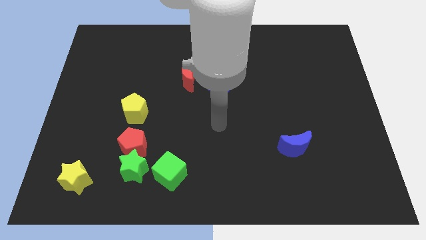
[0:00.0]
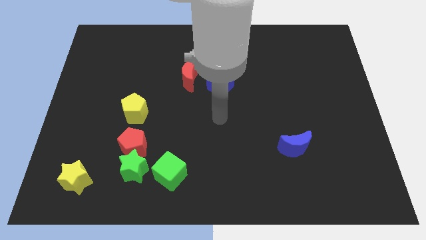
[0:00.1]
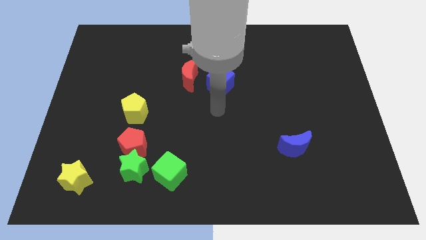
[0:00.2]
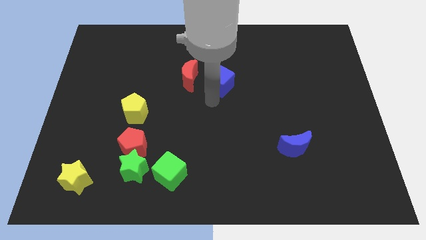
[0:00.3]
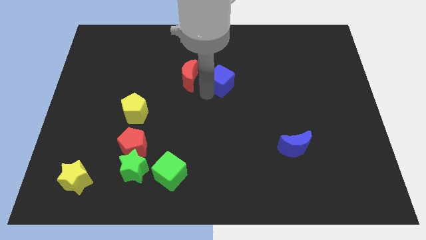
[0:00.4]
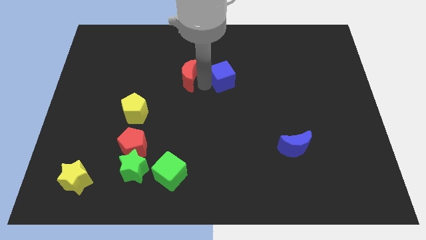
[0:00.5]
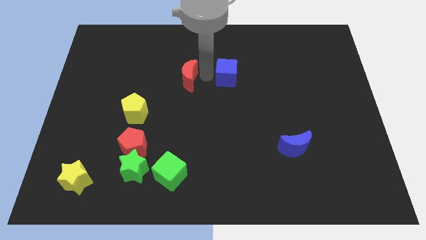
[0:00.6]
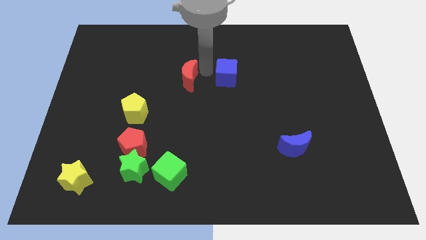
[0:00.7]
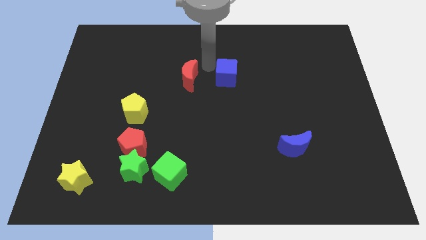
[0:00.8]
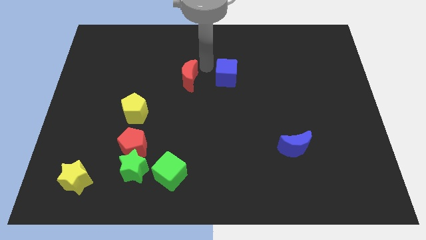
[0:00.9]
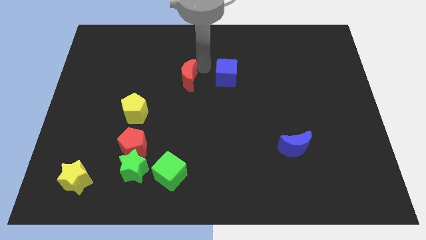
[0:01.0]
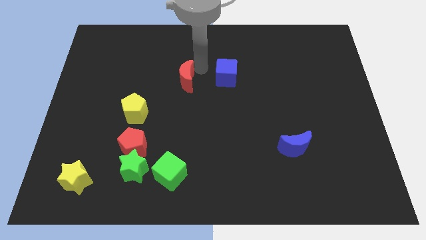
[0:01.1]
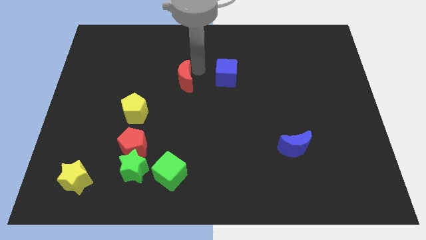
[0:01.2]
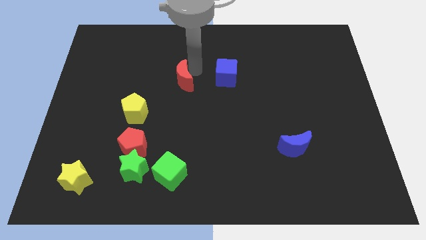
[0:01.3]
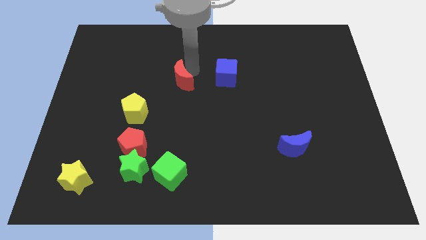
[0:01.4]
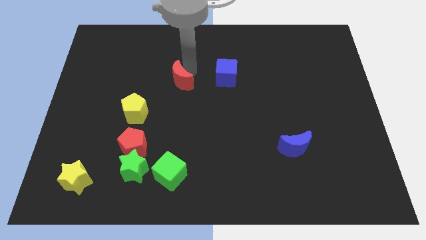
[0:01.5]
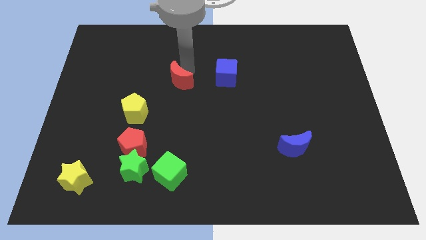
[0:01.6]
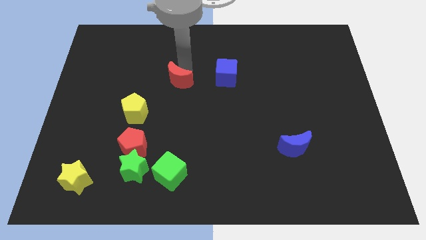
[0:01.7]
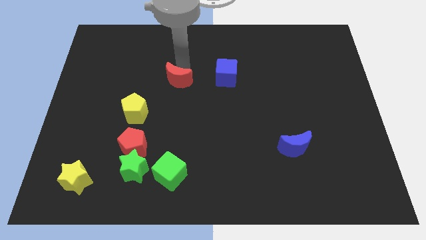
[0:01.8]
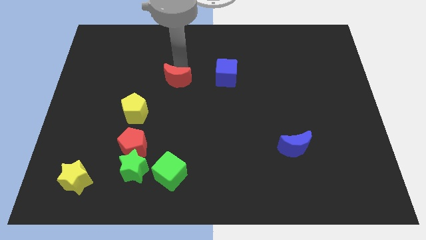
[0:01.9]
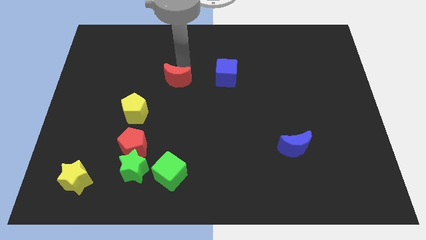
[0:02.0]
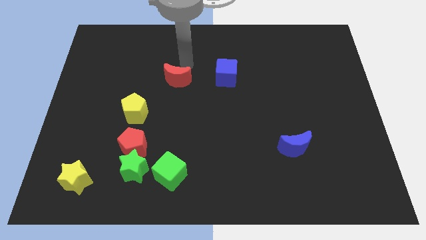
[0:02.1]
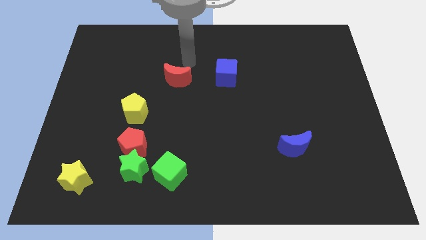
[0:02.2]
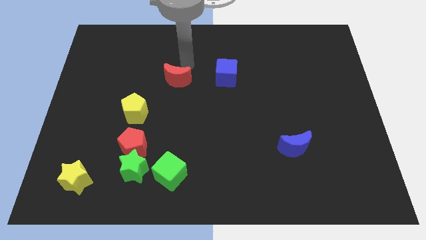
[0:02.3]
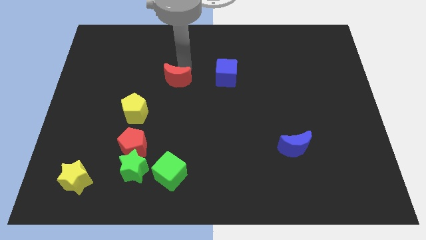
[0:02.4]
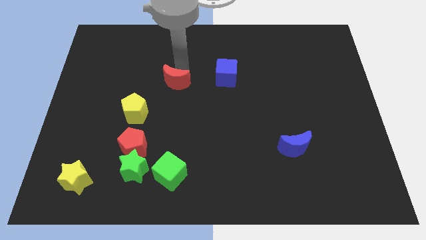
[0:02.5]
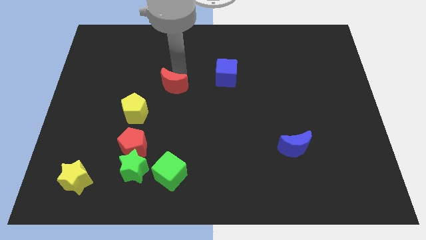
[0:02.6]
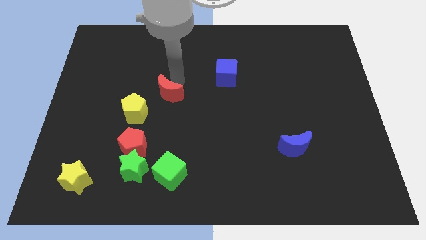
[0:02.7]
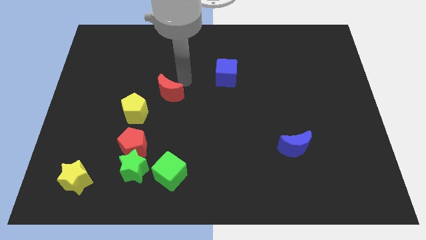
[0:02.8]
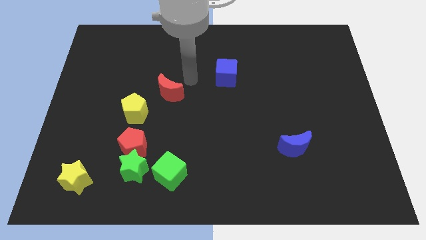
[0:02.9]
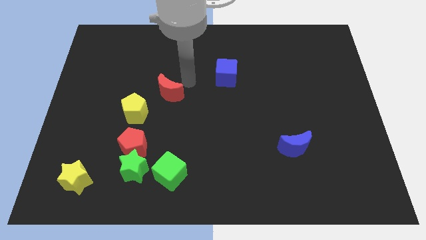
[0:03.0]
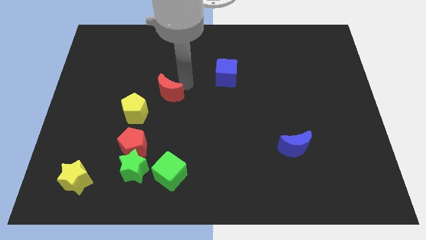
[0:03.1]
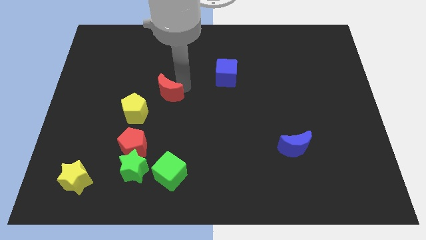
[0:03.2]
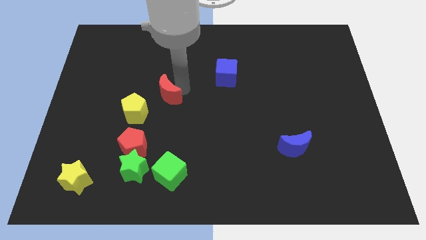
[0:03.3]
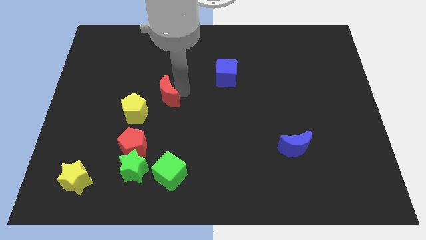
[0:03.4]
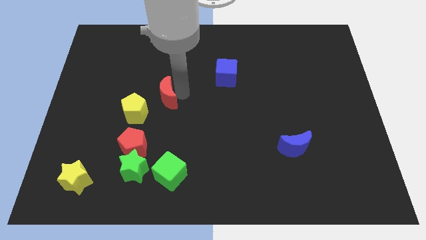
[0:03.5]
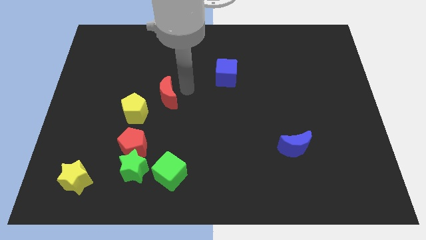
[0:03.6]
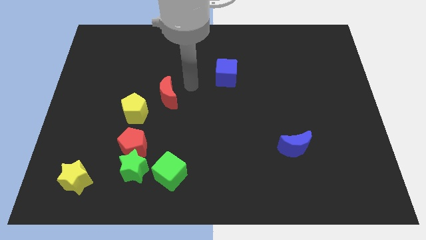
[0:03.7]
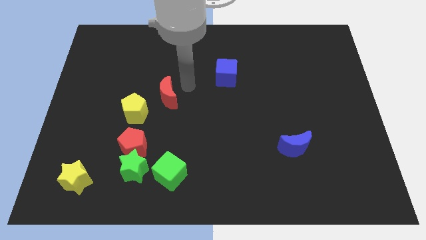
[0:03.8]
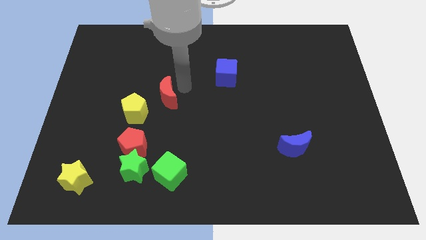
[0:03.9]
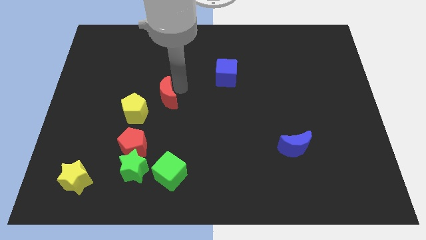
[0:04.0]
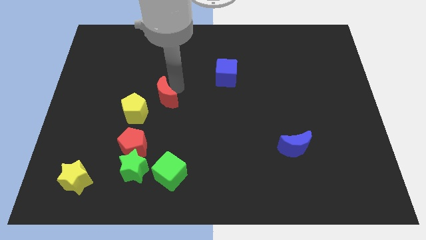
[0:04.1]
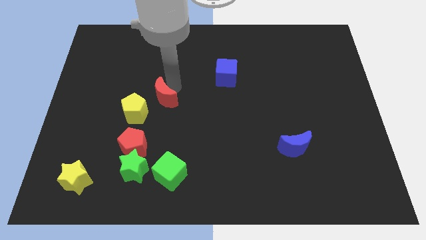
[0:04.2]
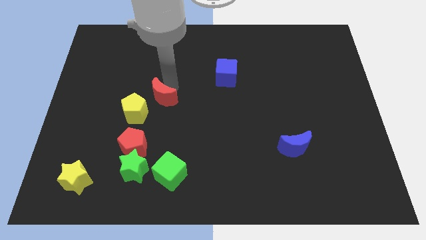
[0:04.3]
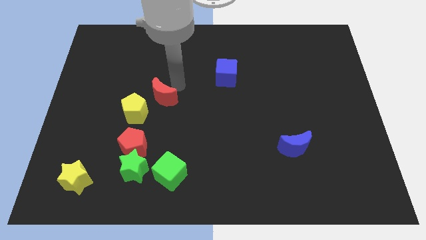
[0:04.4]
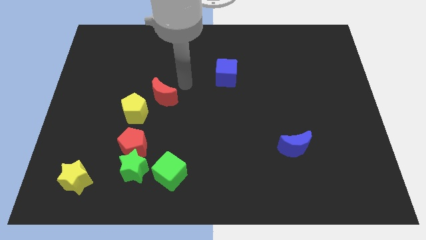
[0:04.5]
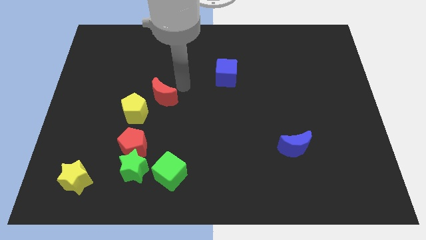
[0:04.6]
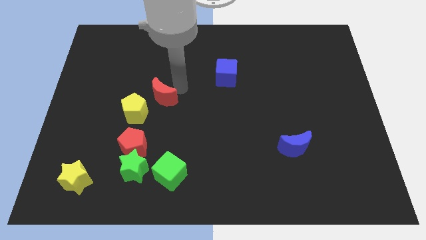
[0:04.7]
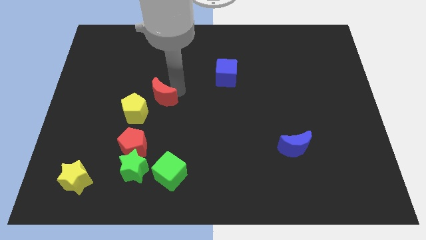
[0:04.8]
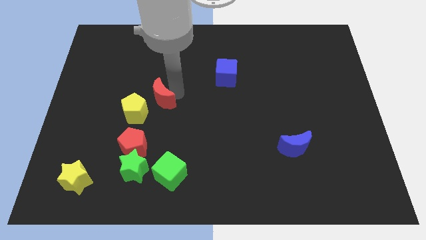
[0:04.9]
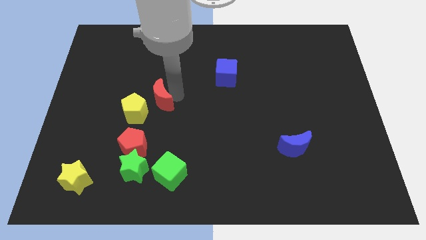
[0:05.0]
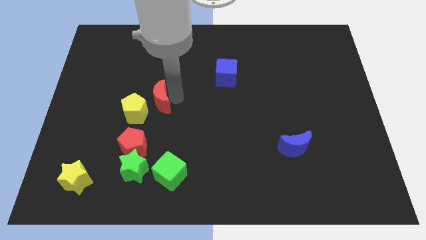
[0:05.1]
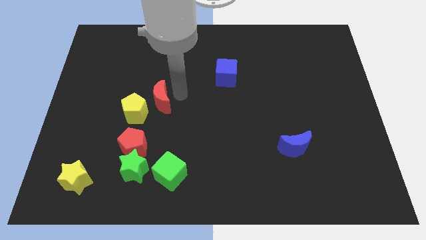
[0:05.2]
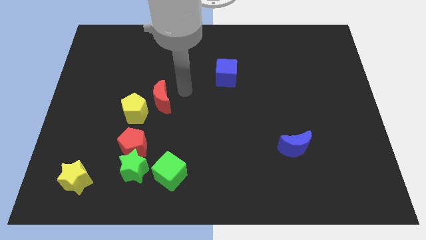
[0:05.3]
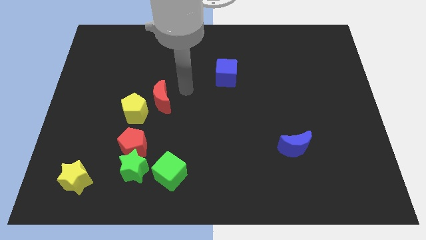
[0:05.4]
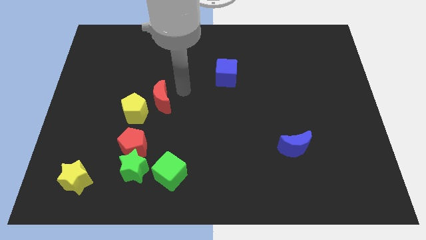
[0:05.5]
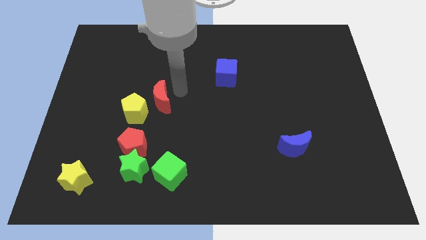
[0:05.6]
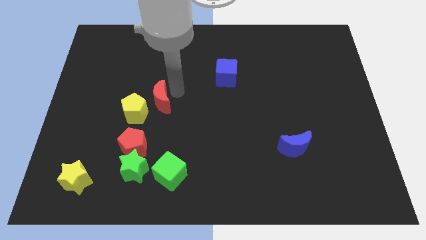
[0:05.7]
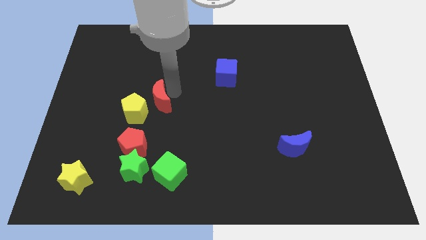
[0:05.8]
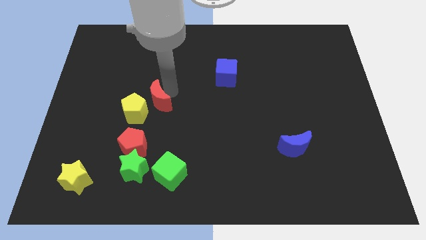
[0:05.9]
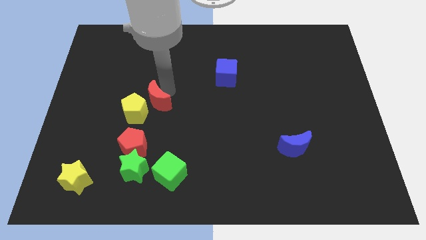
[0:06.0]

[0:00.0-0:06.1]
slide the red moon to the yellow pentagon

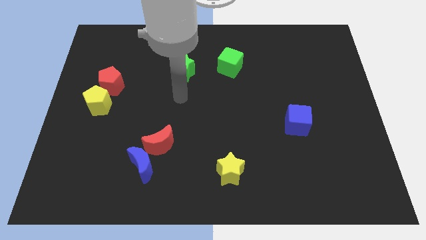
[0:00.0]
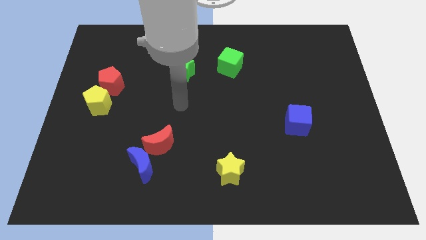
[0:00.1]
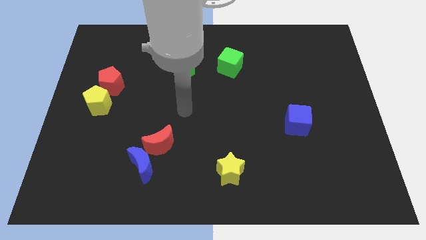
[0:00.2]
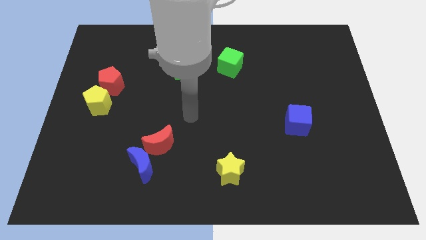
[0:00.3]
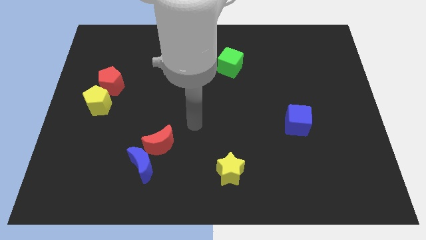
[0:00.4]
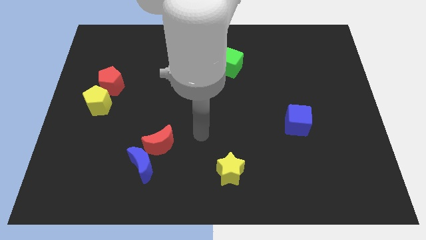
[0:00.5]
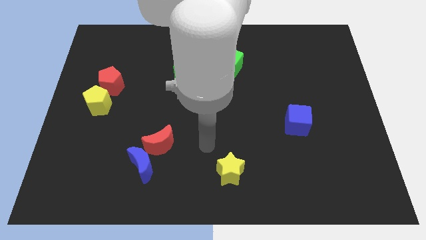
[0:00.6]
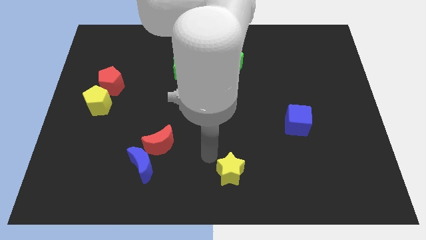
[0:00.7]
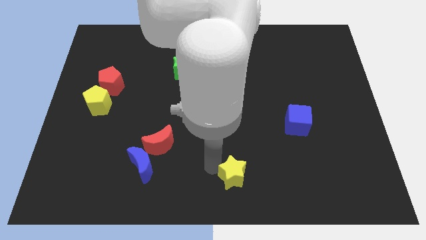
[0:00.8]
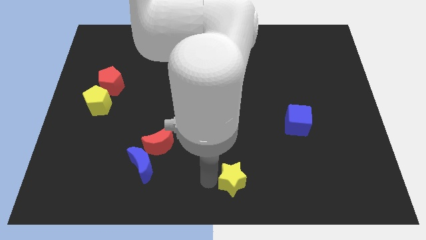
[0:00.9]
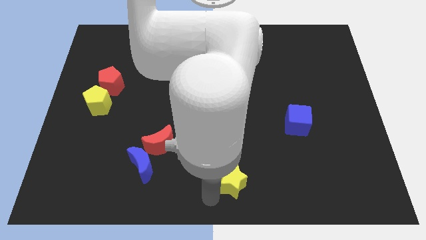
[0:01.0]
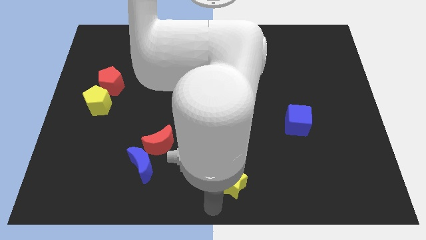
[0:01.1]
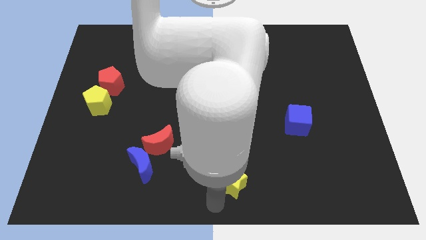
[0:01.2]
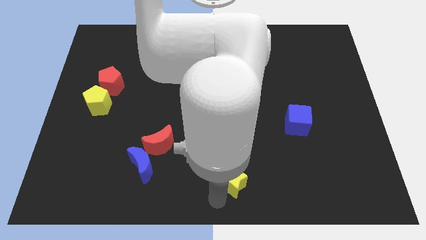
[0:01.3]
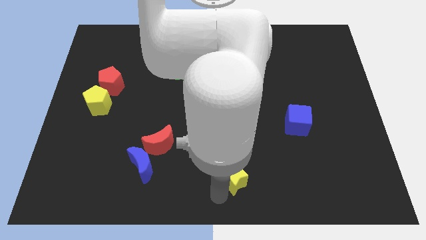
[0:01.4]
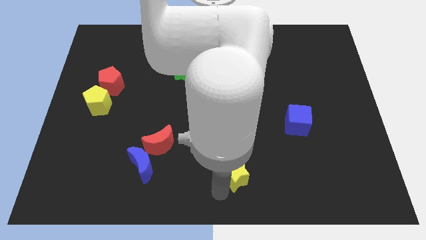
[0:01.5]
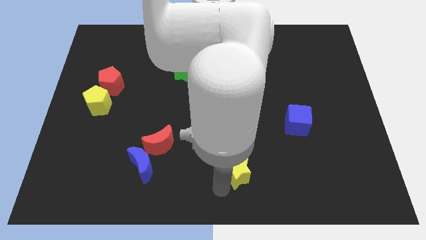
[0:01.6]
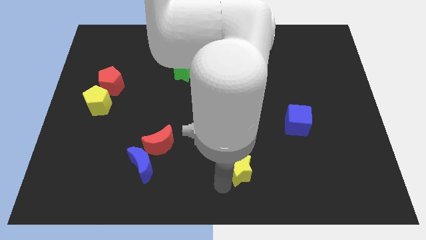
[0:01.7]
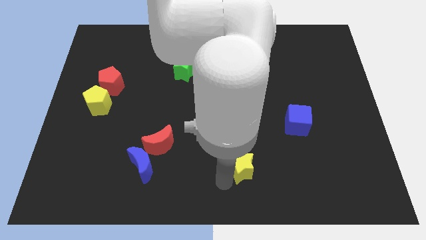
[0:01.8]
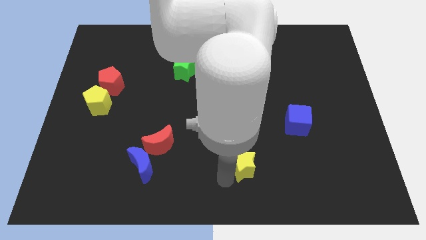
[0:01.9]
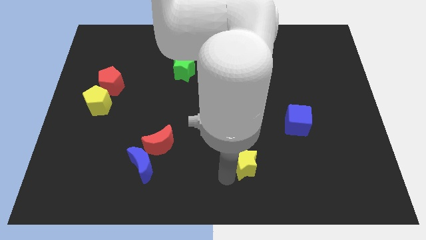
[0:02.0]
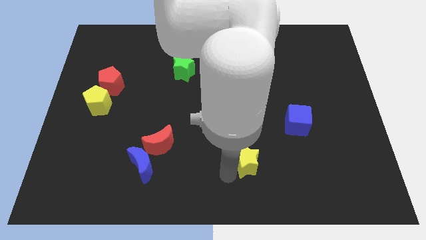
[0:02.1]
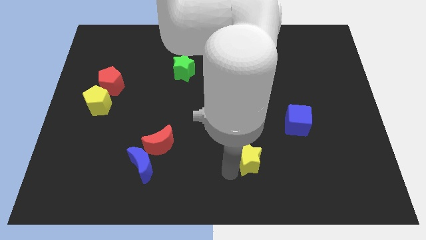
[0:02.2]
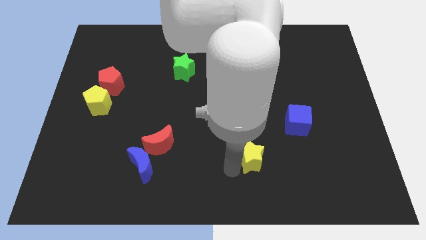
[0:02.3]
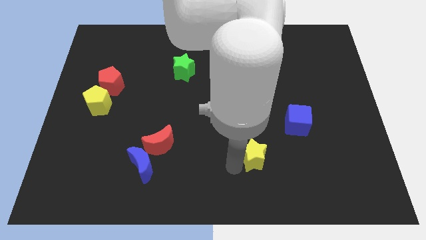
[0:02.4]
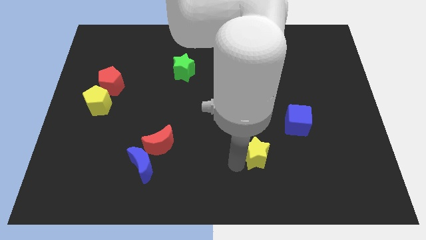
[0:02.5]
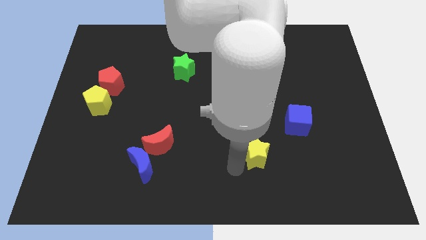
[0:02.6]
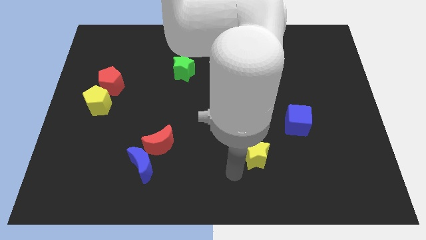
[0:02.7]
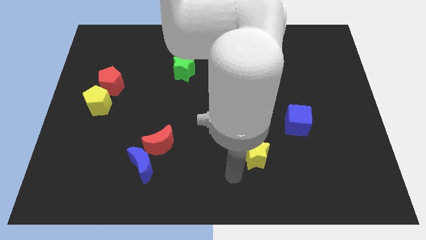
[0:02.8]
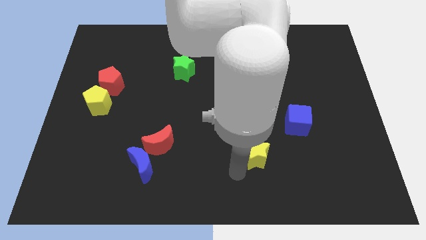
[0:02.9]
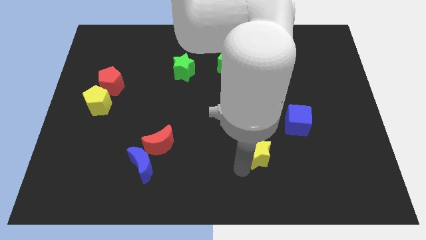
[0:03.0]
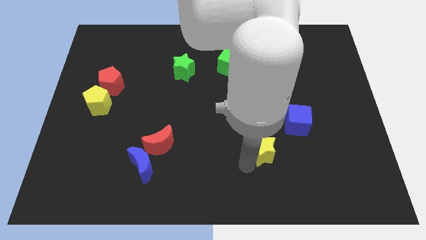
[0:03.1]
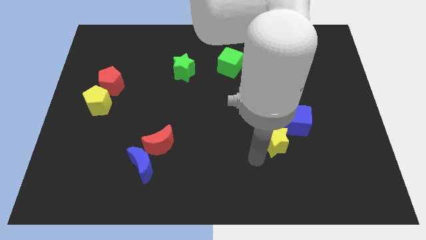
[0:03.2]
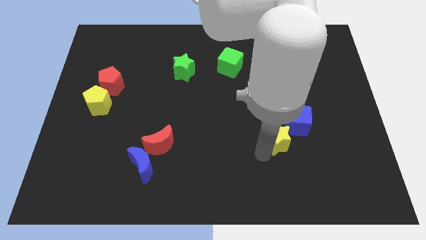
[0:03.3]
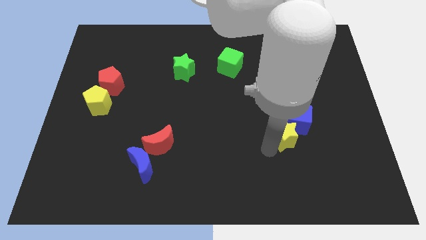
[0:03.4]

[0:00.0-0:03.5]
move the yellow star towards the blue cube
